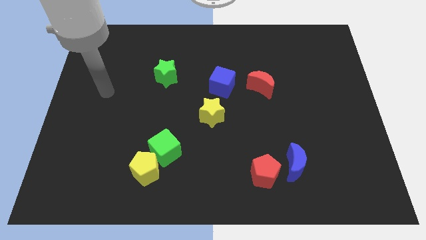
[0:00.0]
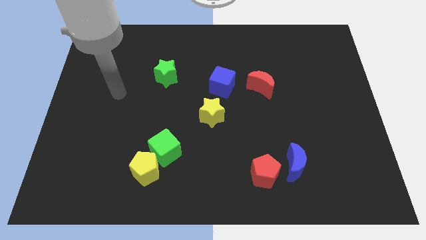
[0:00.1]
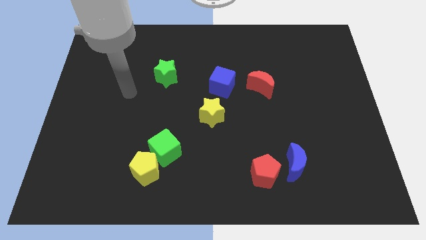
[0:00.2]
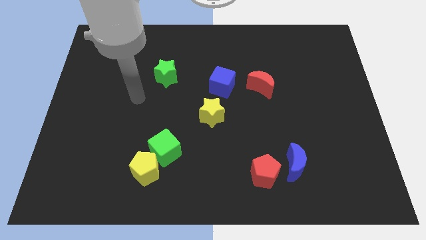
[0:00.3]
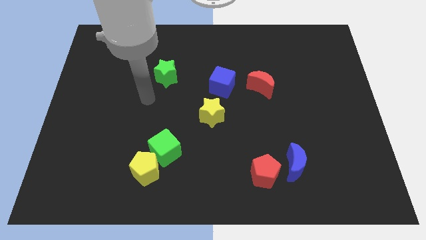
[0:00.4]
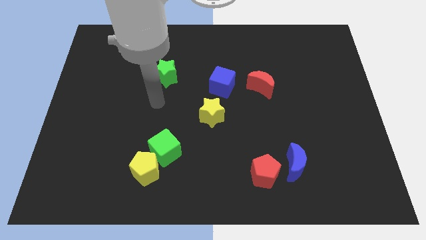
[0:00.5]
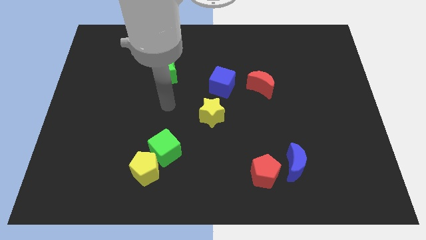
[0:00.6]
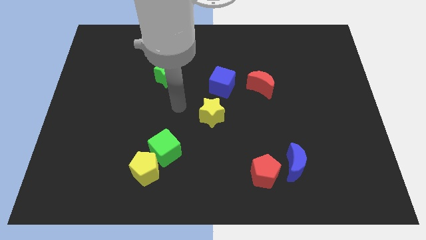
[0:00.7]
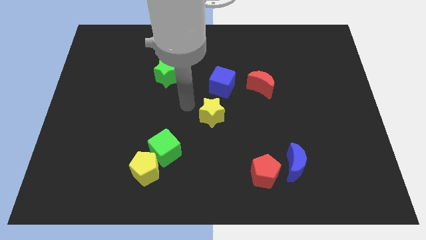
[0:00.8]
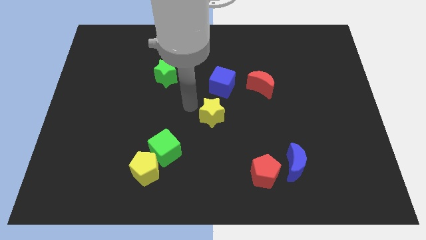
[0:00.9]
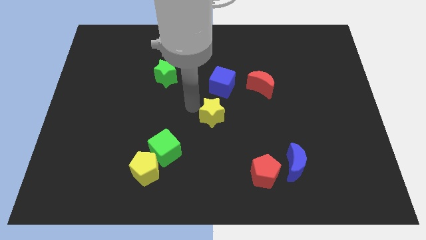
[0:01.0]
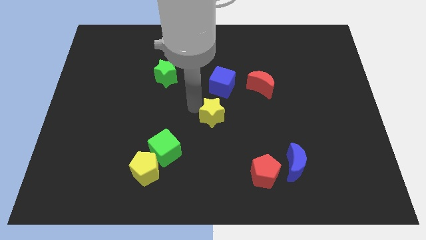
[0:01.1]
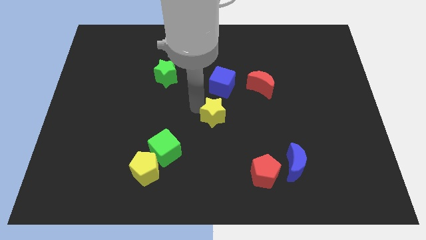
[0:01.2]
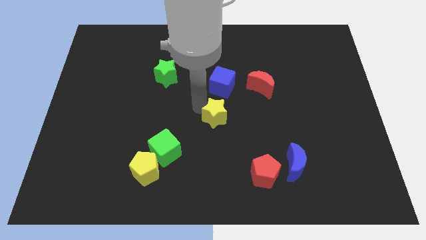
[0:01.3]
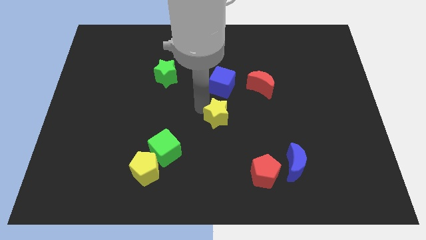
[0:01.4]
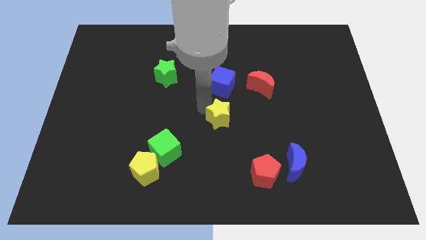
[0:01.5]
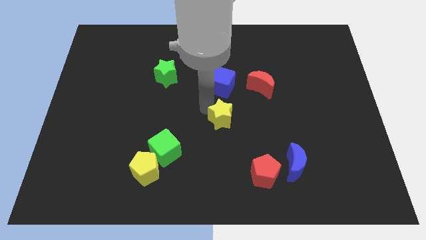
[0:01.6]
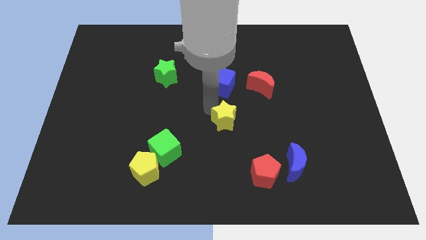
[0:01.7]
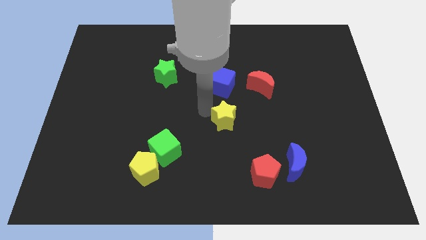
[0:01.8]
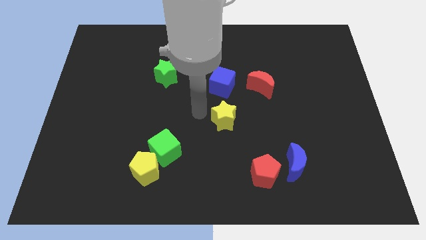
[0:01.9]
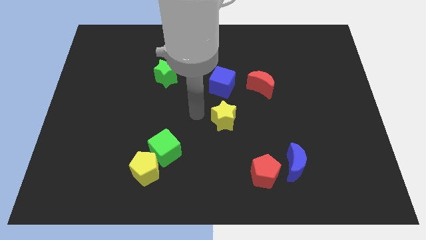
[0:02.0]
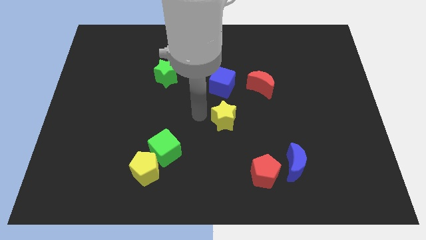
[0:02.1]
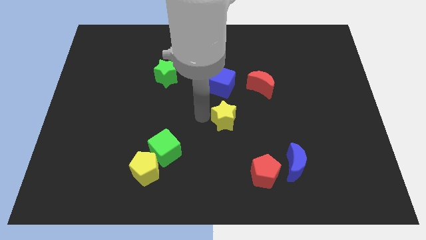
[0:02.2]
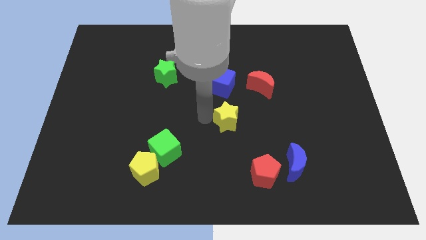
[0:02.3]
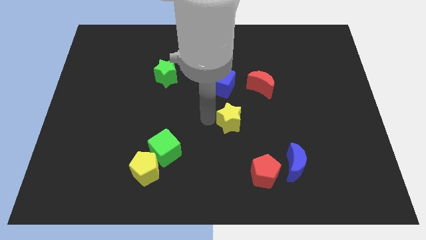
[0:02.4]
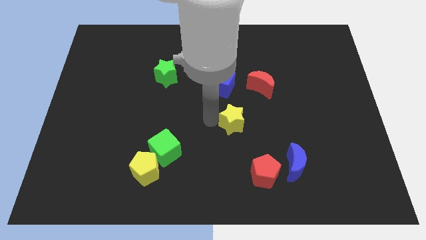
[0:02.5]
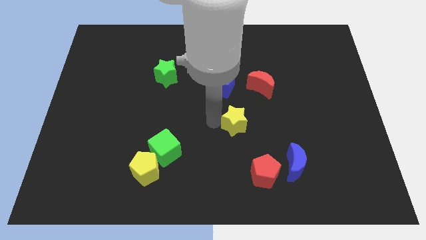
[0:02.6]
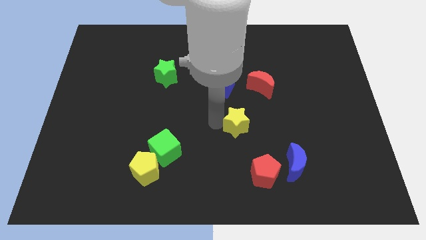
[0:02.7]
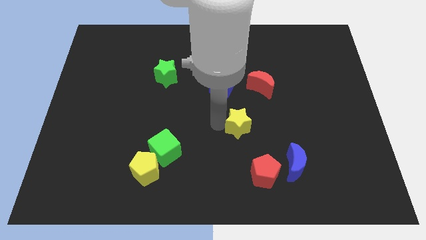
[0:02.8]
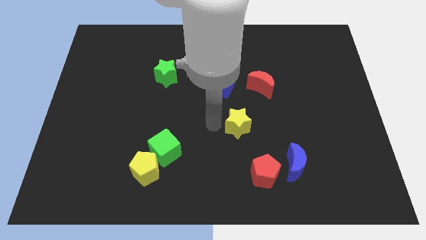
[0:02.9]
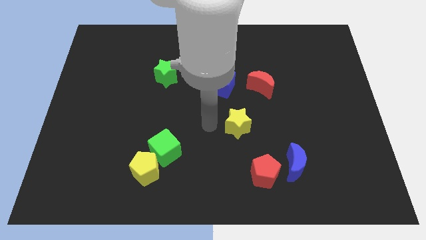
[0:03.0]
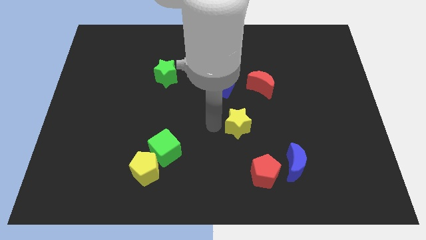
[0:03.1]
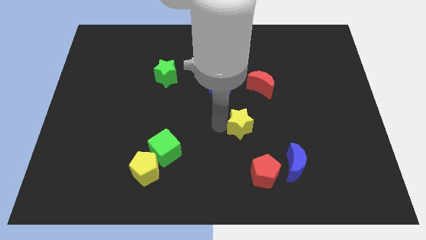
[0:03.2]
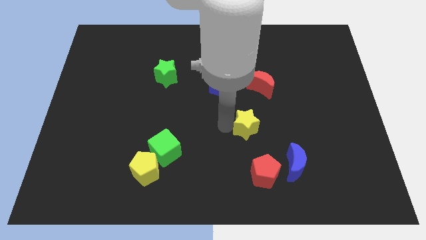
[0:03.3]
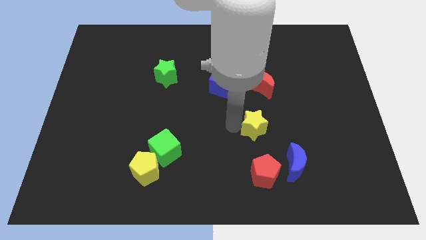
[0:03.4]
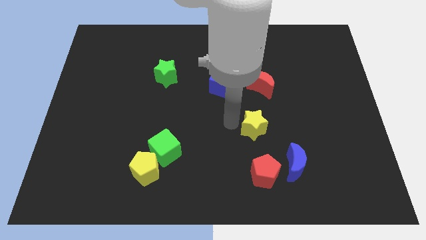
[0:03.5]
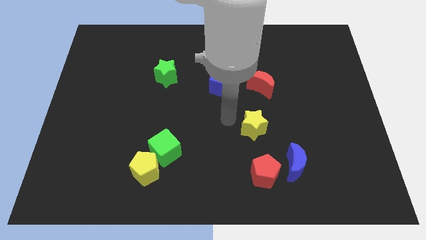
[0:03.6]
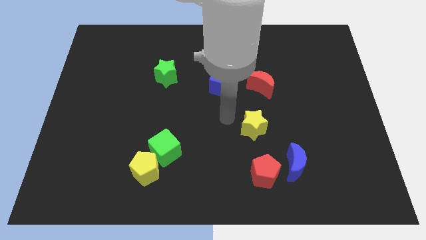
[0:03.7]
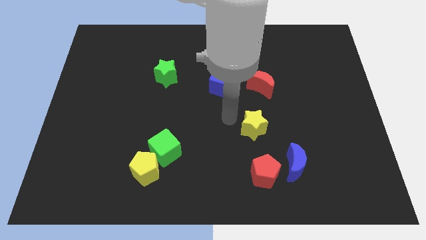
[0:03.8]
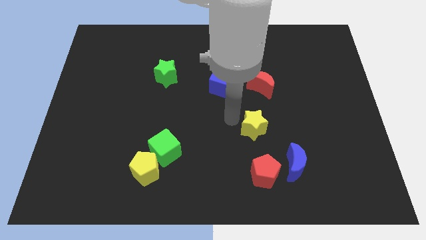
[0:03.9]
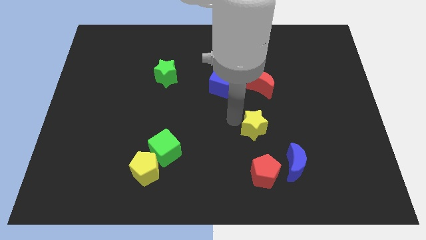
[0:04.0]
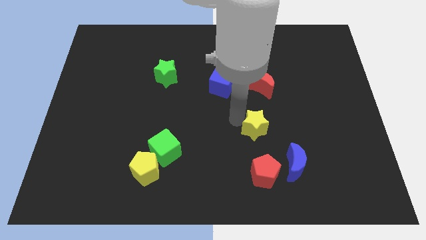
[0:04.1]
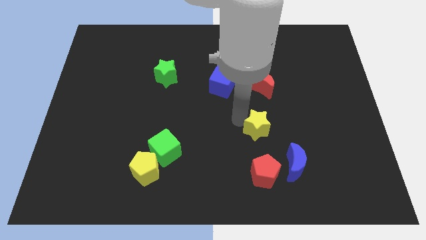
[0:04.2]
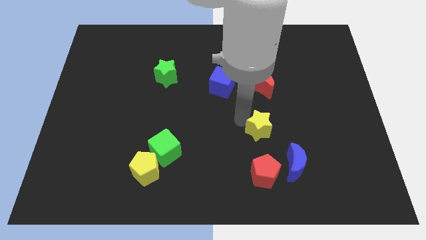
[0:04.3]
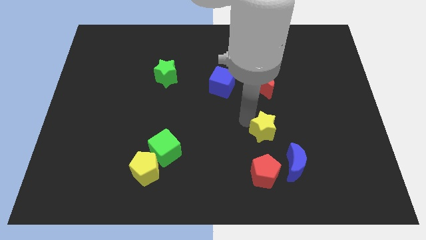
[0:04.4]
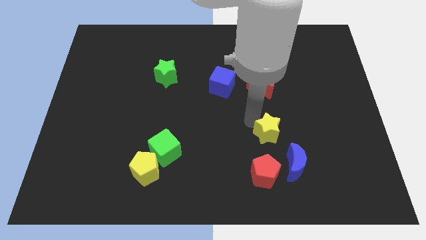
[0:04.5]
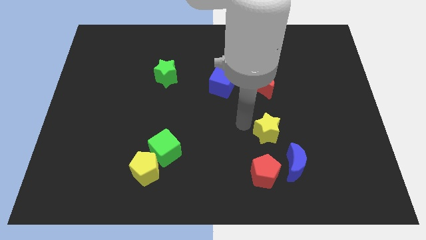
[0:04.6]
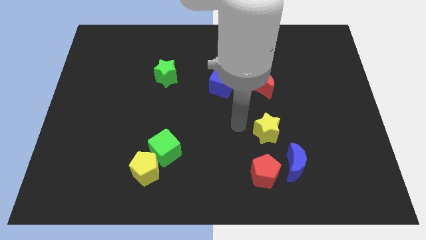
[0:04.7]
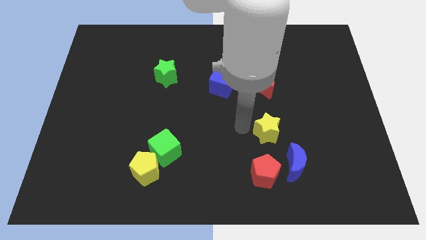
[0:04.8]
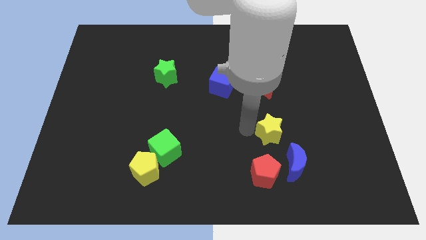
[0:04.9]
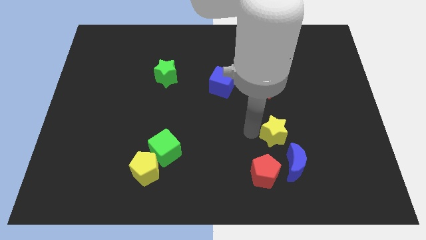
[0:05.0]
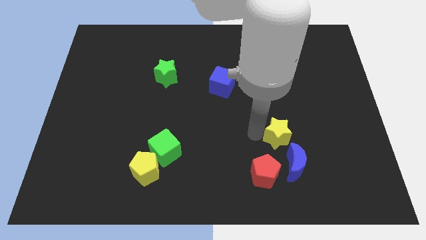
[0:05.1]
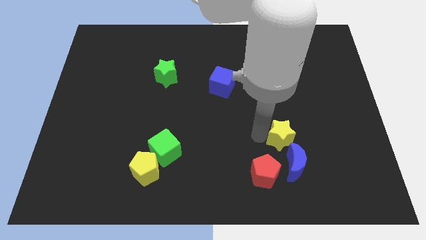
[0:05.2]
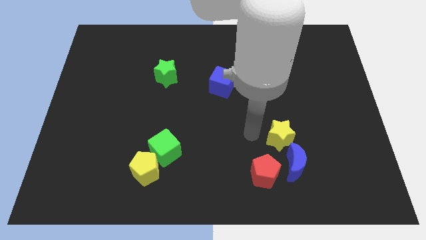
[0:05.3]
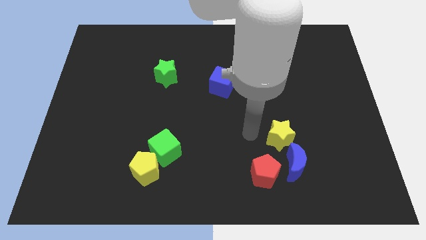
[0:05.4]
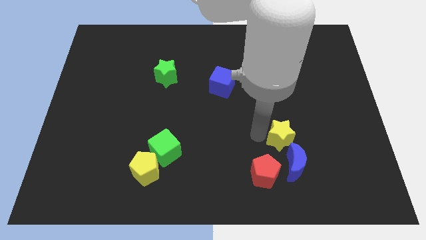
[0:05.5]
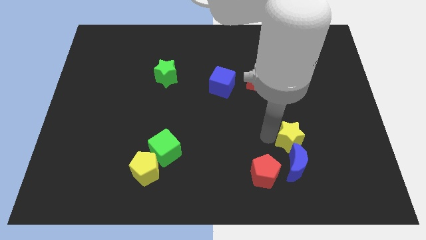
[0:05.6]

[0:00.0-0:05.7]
push the yellow star to the top right of the blue moon

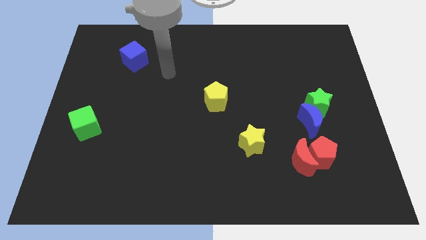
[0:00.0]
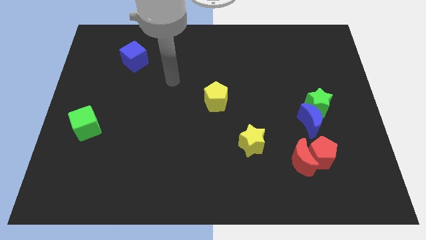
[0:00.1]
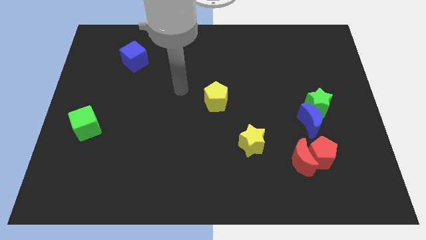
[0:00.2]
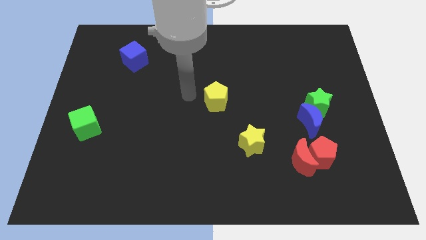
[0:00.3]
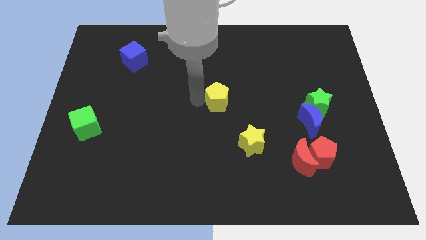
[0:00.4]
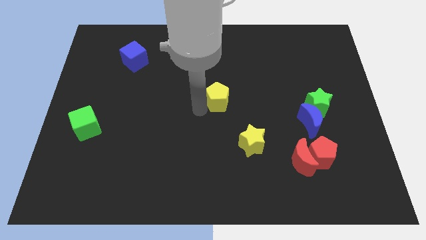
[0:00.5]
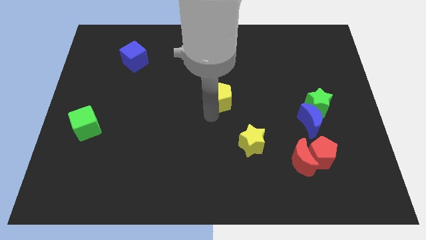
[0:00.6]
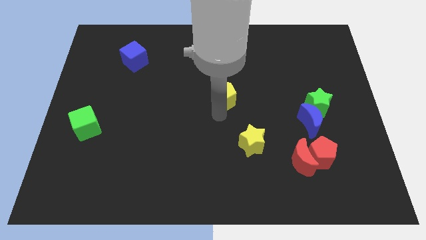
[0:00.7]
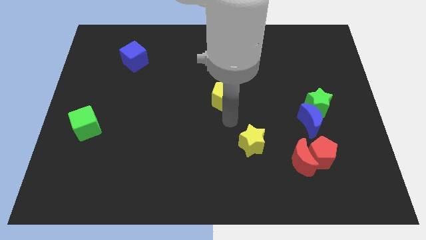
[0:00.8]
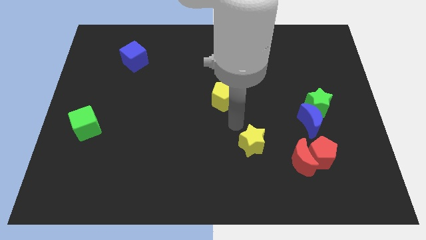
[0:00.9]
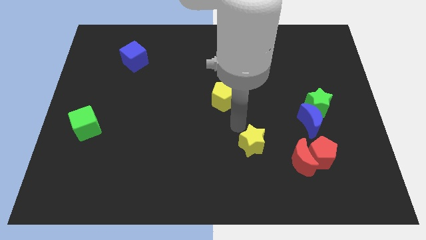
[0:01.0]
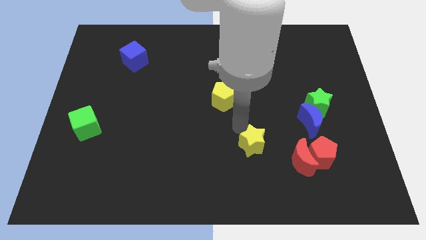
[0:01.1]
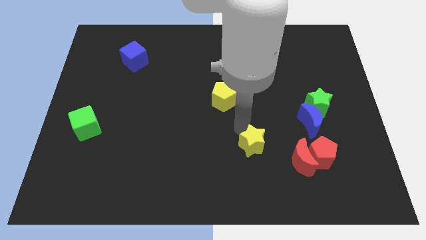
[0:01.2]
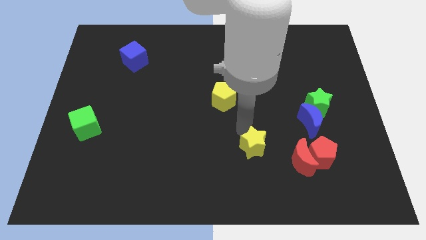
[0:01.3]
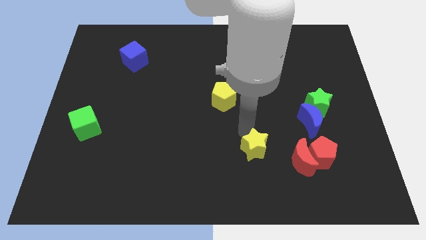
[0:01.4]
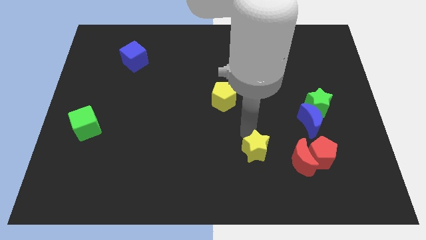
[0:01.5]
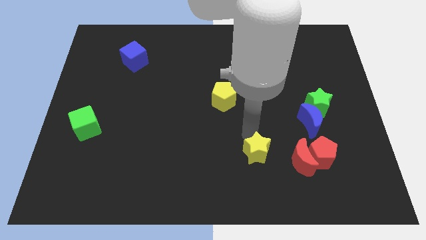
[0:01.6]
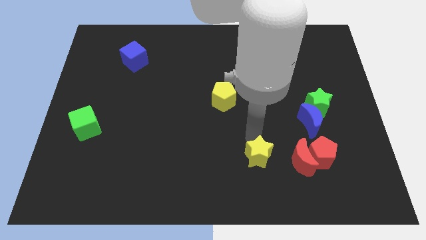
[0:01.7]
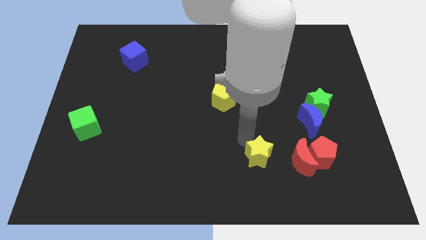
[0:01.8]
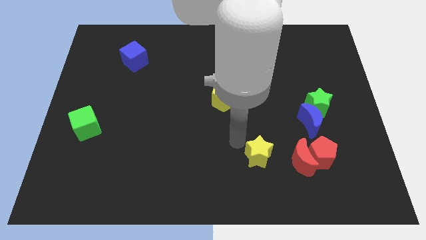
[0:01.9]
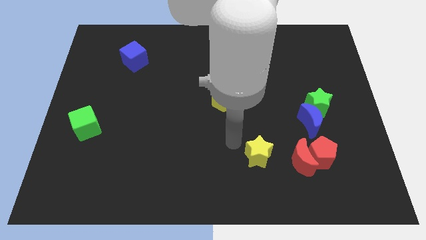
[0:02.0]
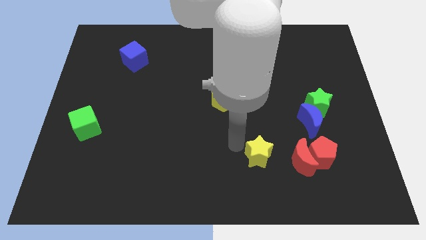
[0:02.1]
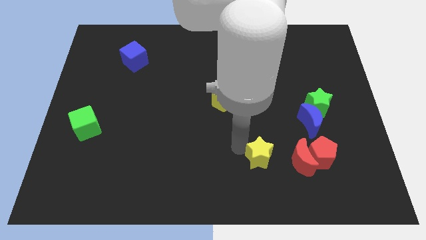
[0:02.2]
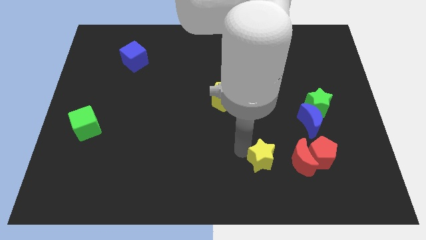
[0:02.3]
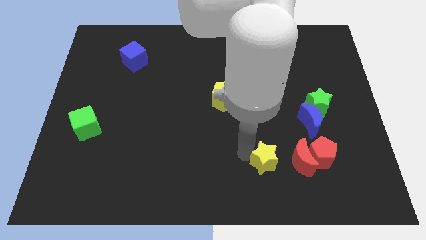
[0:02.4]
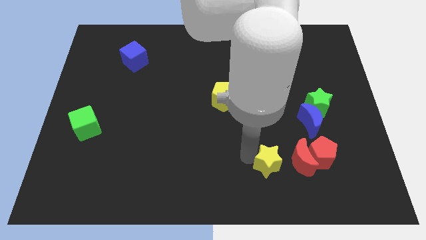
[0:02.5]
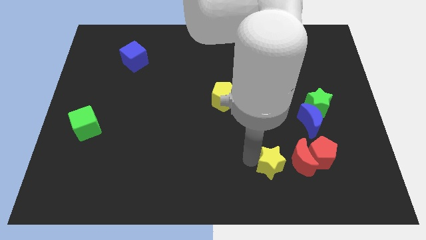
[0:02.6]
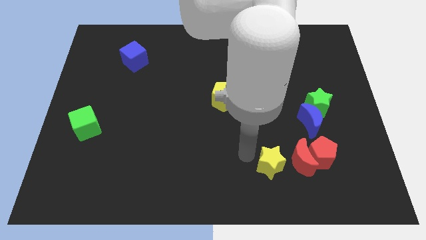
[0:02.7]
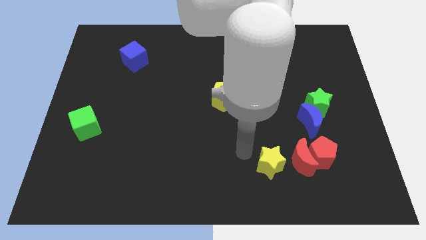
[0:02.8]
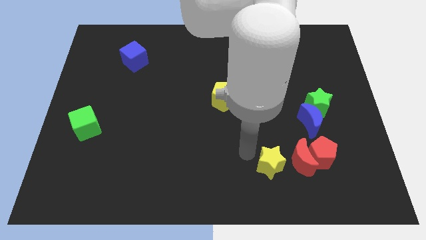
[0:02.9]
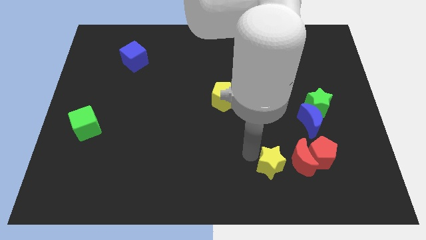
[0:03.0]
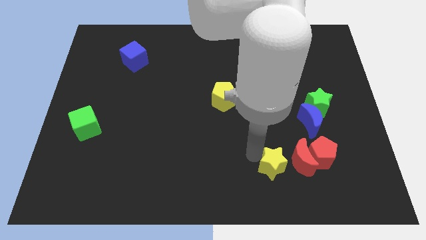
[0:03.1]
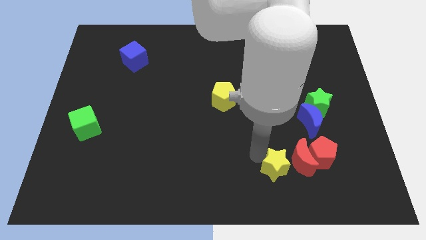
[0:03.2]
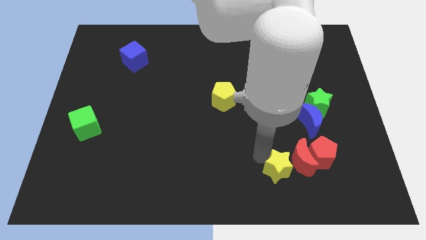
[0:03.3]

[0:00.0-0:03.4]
move the yellow star to the bottom left of the red pentagon
